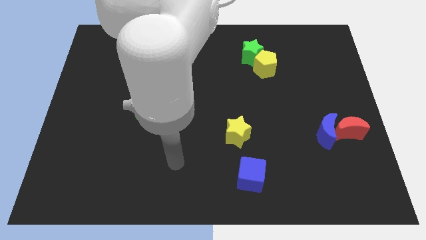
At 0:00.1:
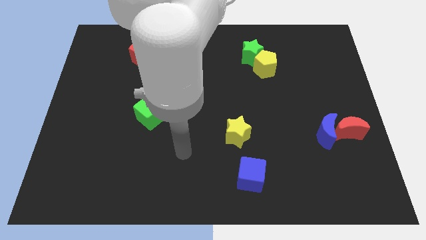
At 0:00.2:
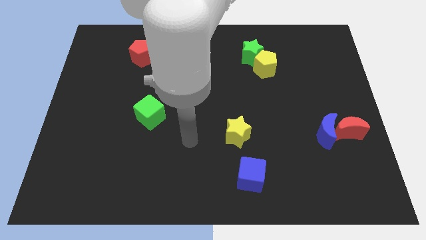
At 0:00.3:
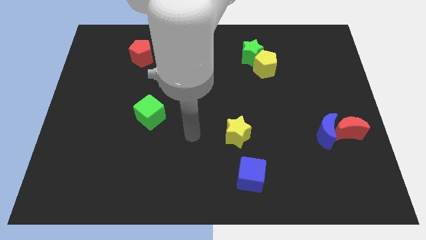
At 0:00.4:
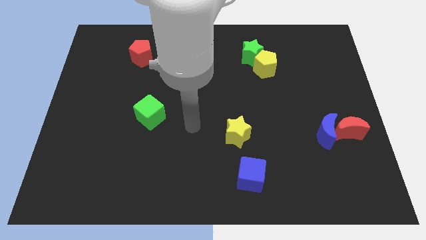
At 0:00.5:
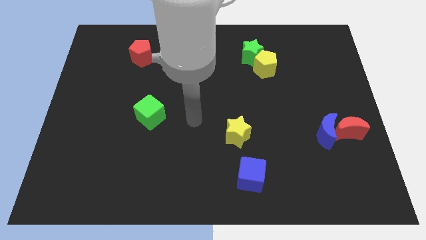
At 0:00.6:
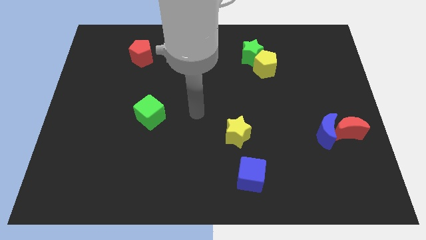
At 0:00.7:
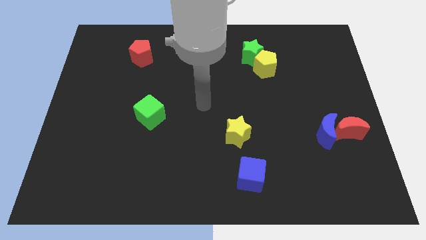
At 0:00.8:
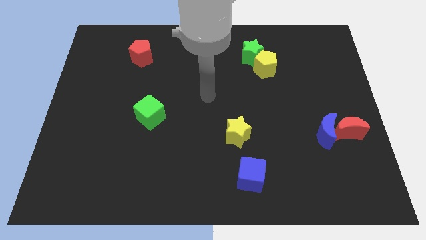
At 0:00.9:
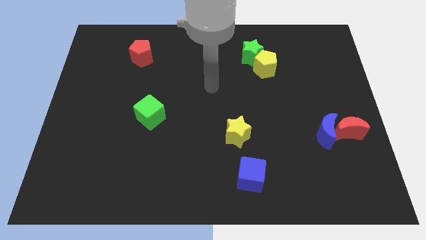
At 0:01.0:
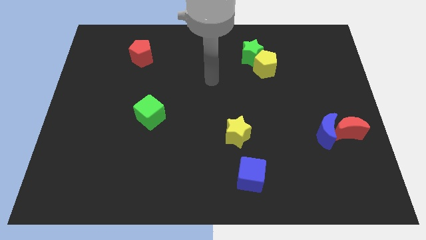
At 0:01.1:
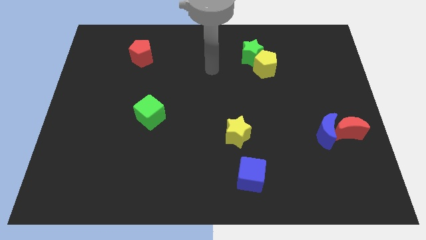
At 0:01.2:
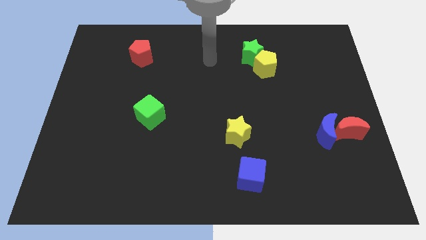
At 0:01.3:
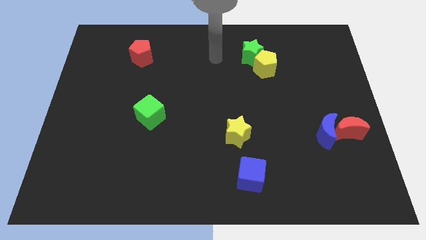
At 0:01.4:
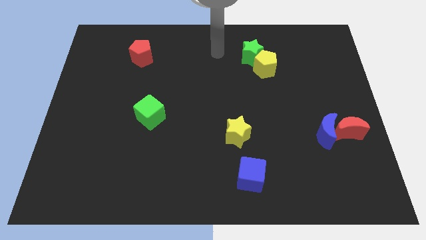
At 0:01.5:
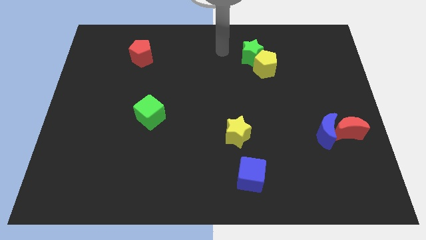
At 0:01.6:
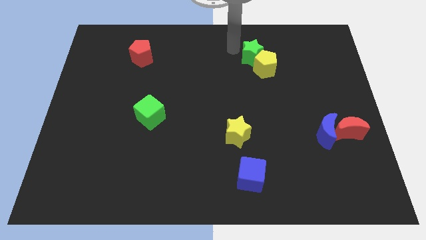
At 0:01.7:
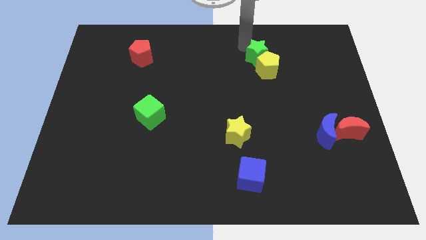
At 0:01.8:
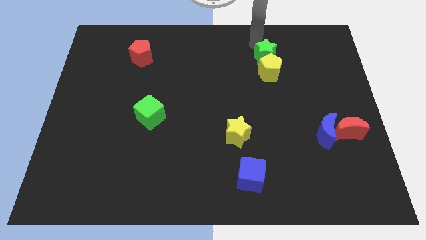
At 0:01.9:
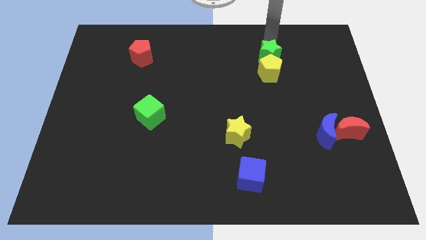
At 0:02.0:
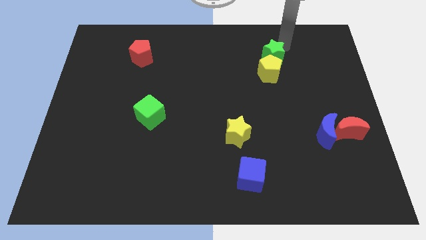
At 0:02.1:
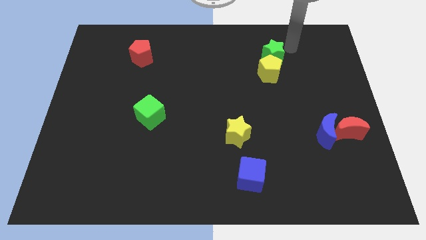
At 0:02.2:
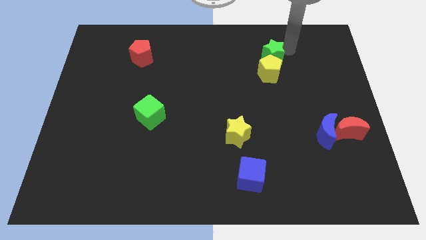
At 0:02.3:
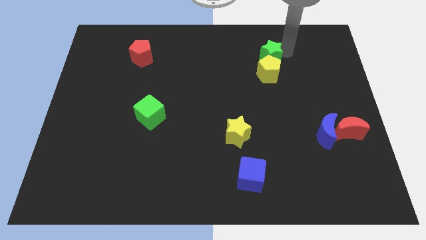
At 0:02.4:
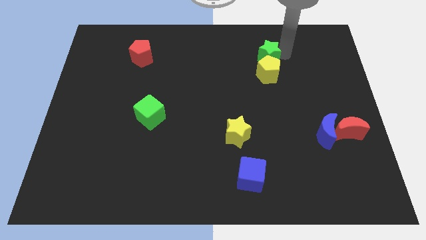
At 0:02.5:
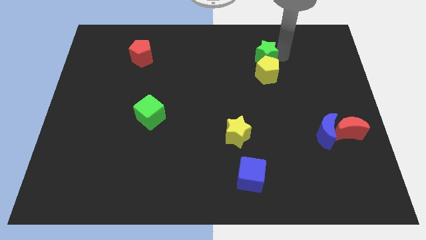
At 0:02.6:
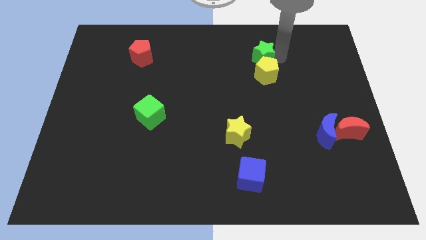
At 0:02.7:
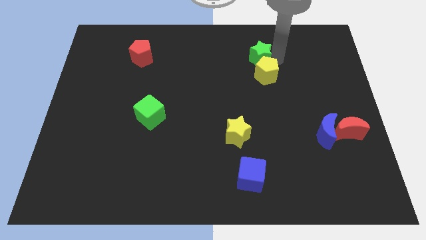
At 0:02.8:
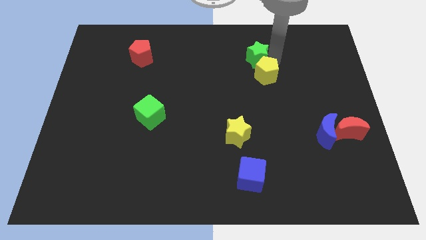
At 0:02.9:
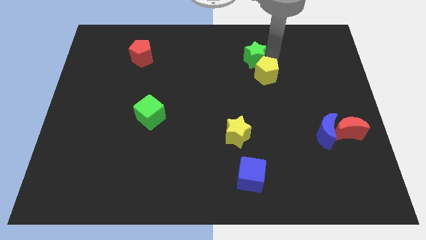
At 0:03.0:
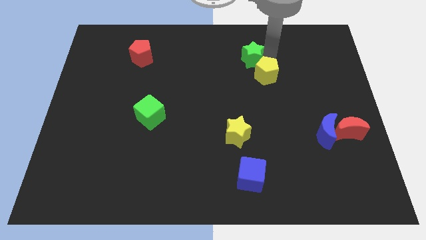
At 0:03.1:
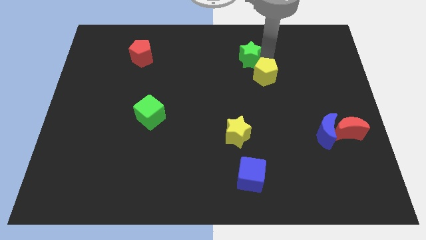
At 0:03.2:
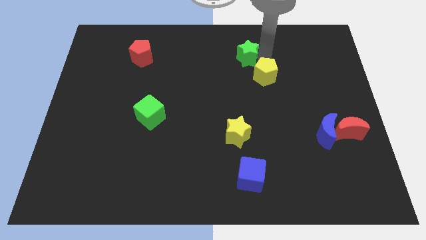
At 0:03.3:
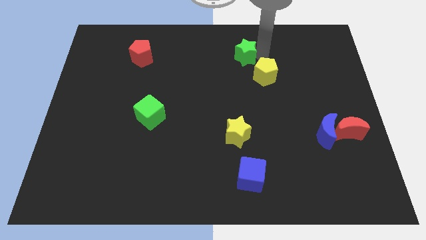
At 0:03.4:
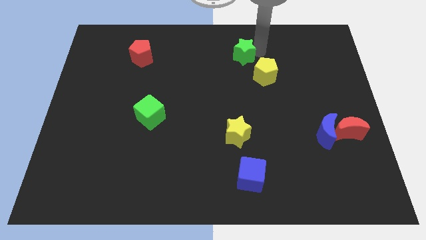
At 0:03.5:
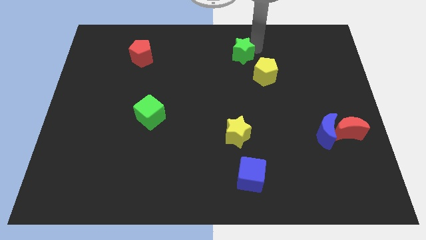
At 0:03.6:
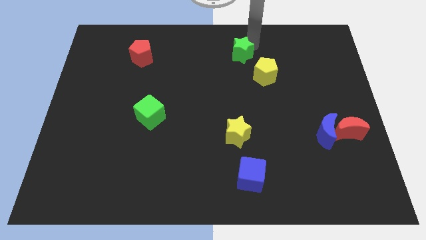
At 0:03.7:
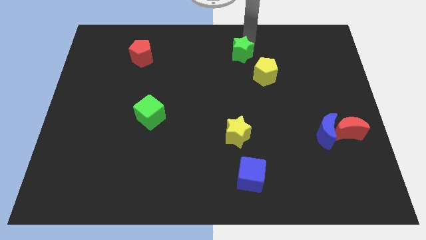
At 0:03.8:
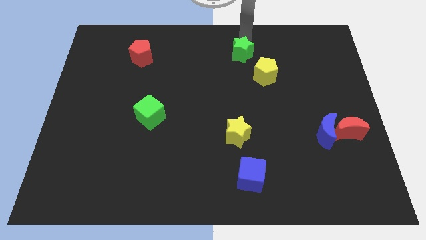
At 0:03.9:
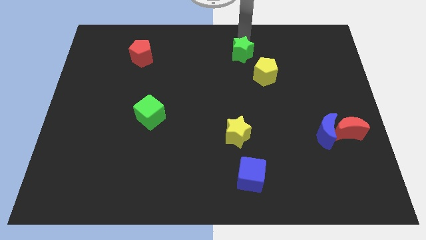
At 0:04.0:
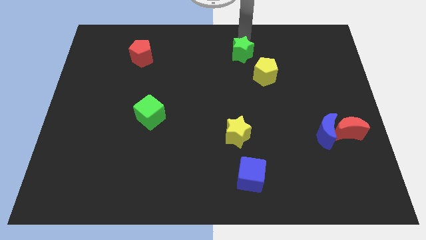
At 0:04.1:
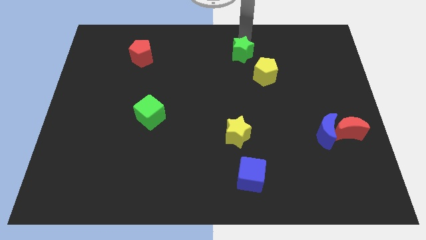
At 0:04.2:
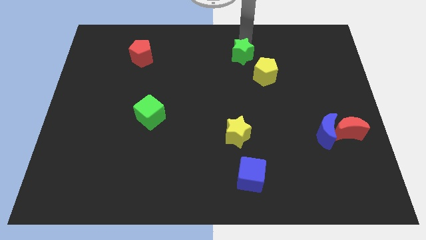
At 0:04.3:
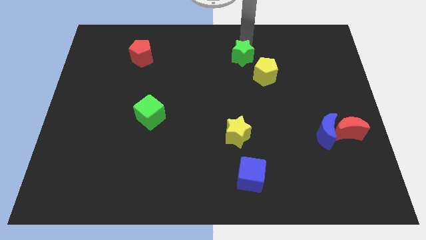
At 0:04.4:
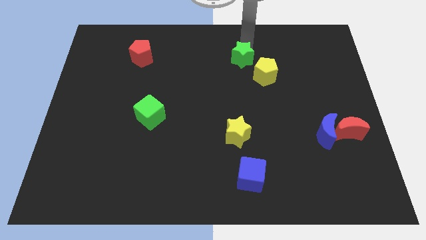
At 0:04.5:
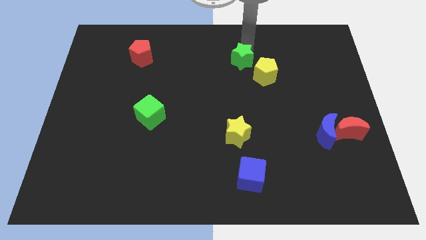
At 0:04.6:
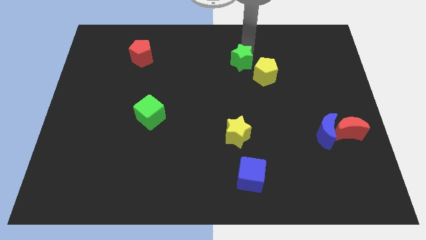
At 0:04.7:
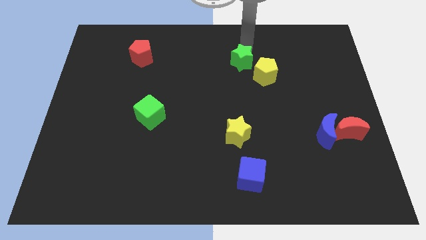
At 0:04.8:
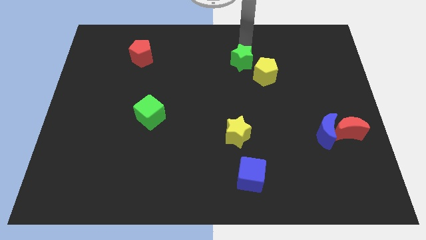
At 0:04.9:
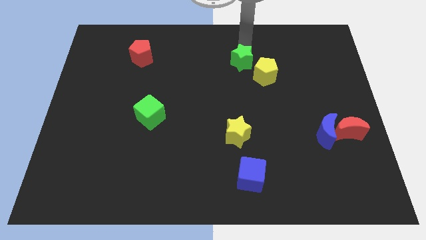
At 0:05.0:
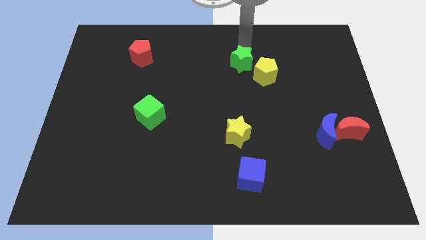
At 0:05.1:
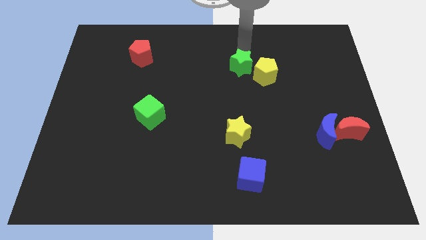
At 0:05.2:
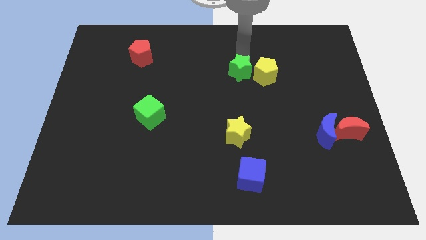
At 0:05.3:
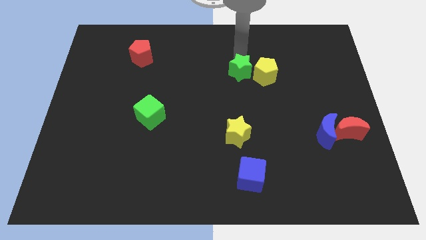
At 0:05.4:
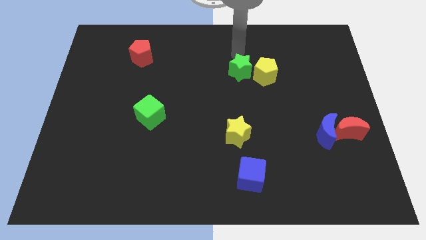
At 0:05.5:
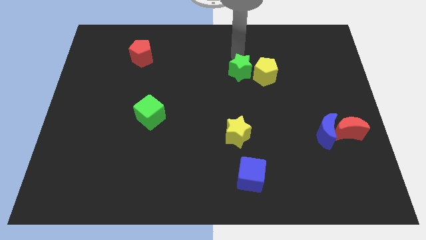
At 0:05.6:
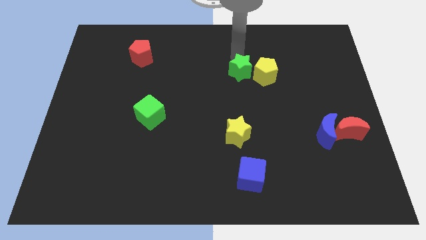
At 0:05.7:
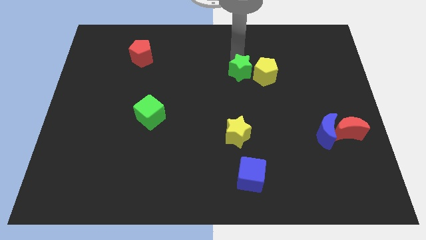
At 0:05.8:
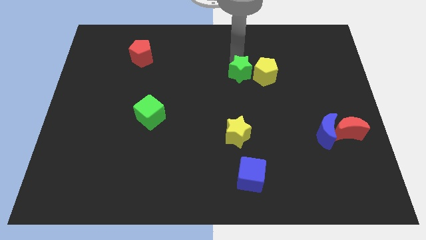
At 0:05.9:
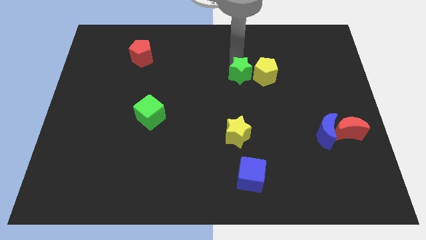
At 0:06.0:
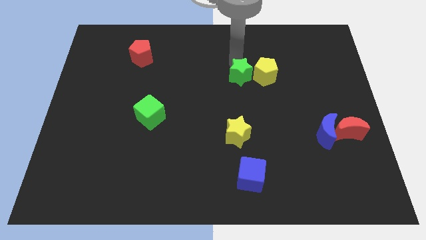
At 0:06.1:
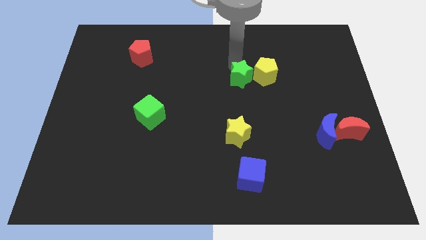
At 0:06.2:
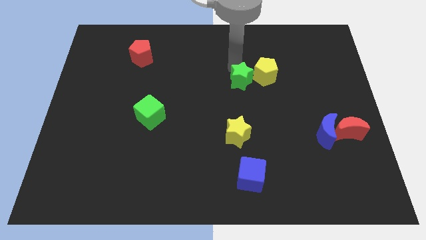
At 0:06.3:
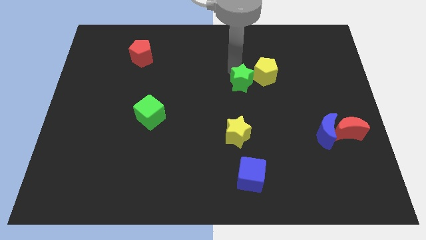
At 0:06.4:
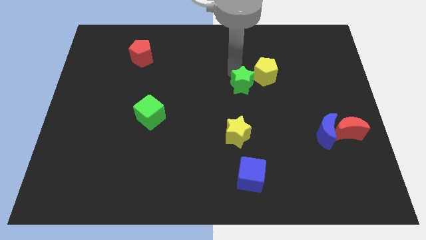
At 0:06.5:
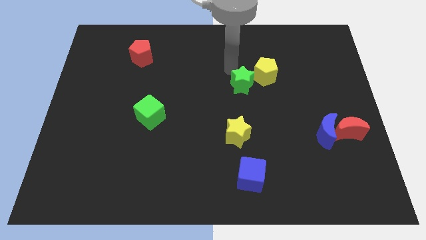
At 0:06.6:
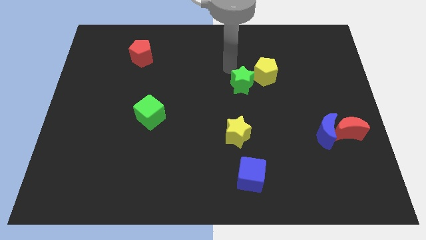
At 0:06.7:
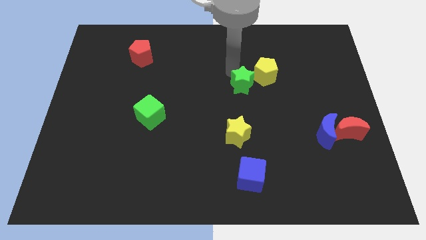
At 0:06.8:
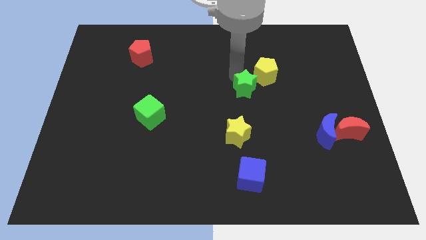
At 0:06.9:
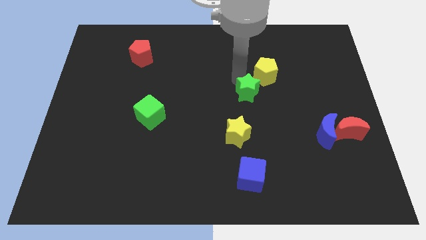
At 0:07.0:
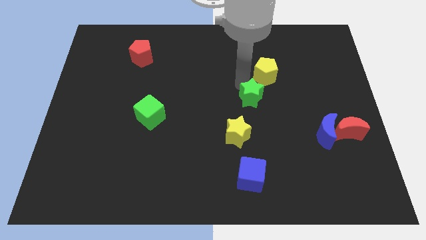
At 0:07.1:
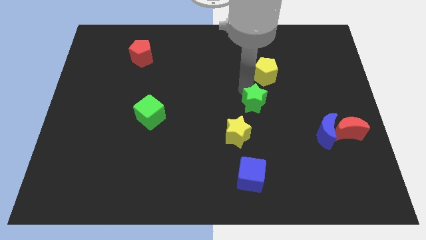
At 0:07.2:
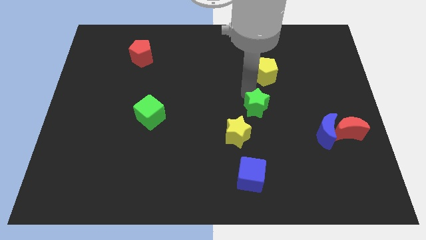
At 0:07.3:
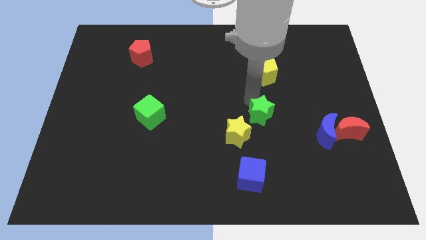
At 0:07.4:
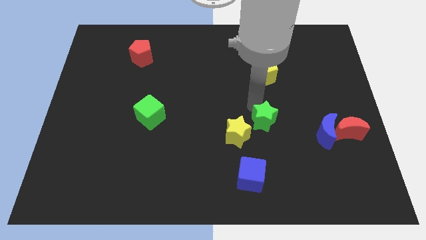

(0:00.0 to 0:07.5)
put the green star just left of the blue moon

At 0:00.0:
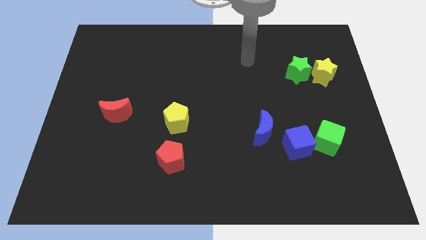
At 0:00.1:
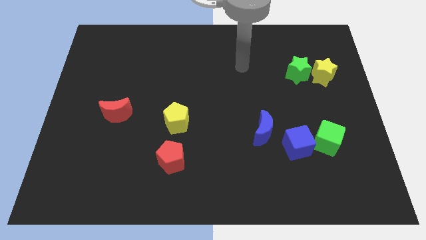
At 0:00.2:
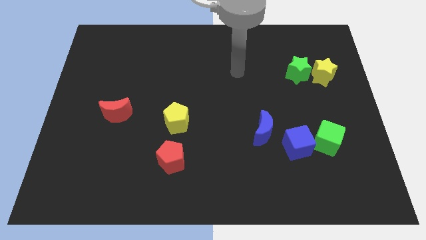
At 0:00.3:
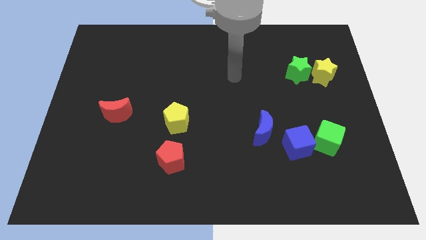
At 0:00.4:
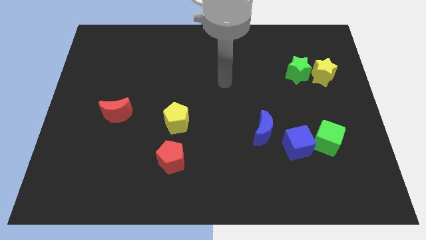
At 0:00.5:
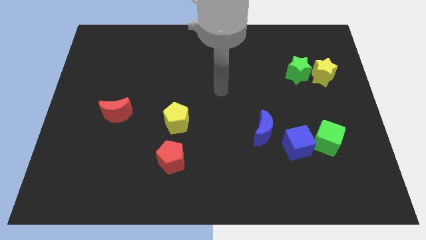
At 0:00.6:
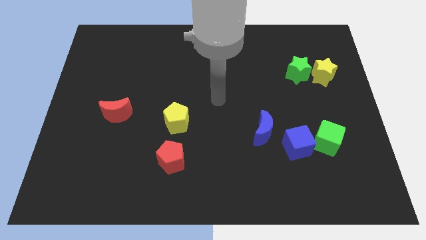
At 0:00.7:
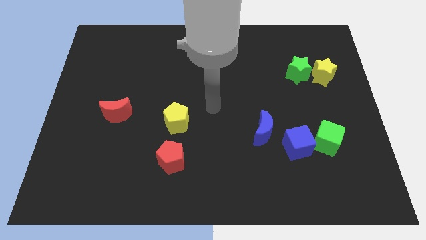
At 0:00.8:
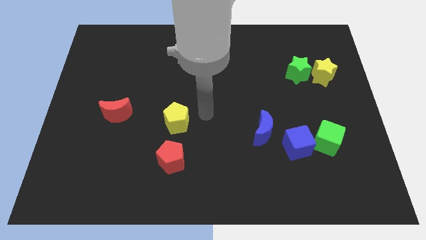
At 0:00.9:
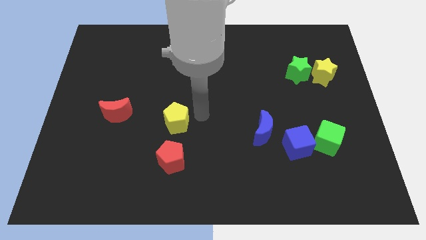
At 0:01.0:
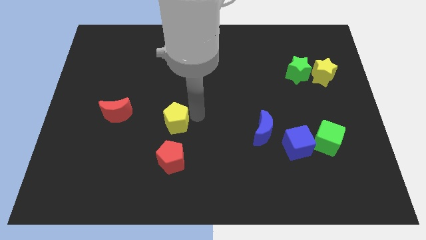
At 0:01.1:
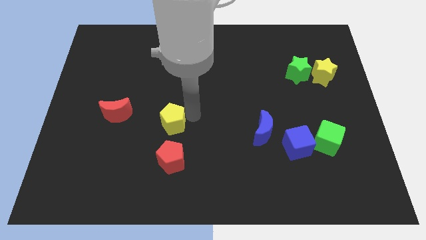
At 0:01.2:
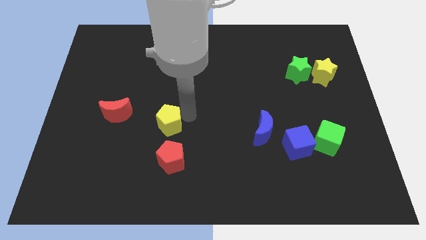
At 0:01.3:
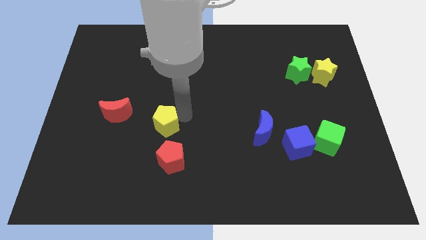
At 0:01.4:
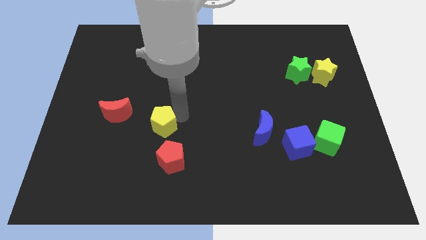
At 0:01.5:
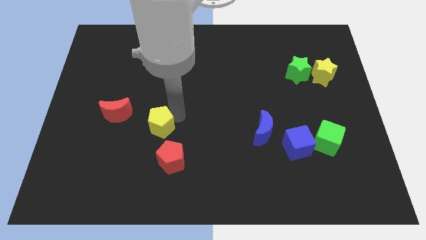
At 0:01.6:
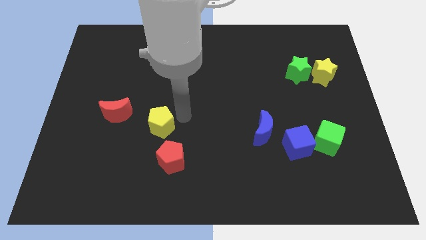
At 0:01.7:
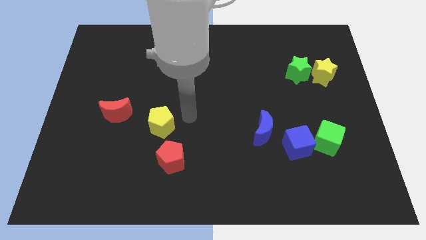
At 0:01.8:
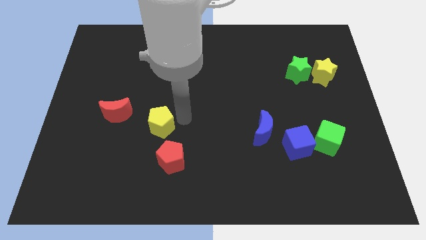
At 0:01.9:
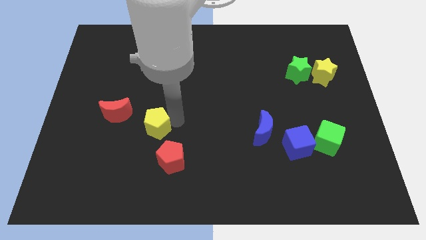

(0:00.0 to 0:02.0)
push the yellow pentagon diagonally down and to the right of the red moon
